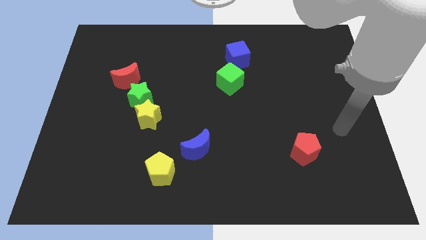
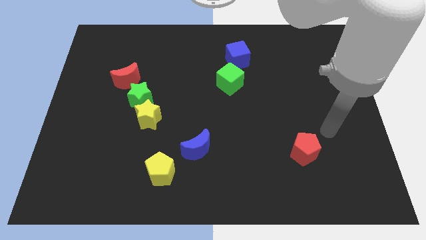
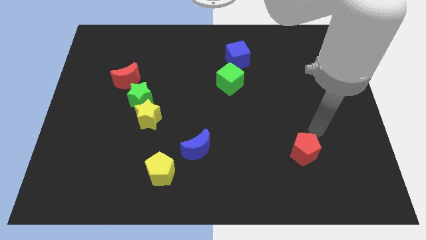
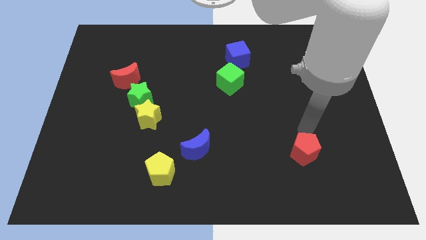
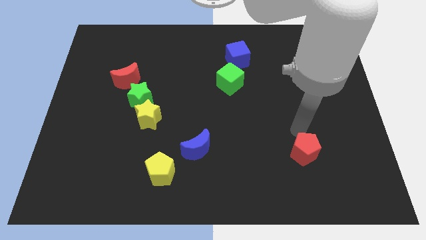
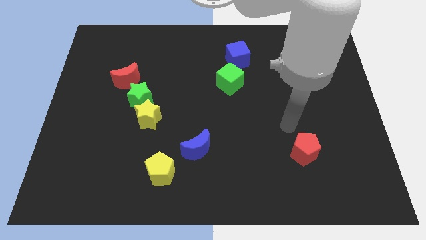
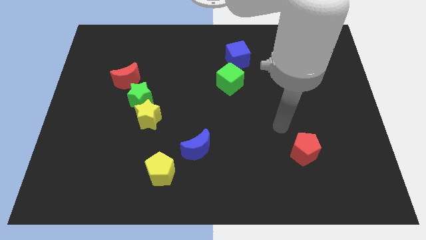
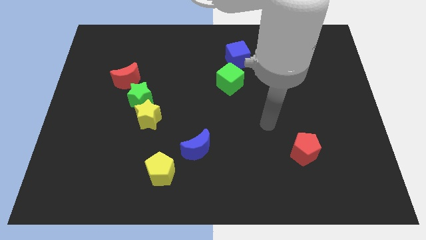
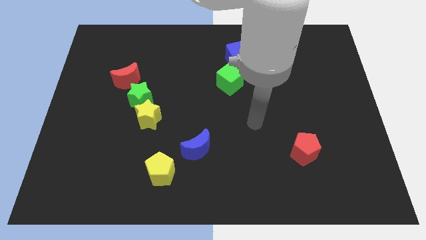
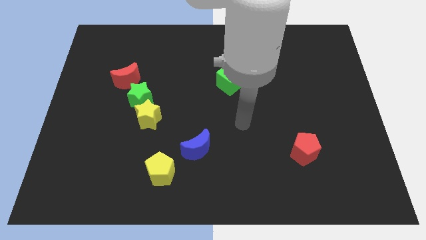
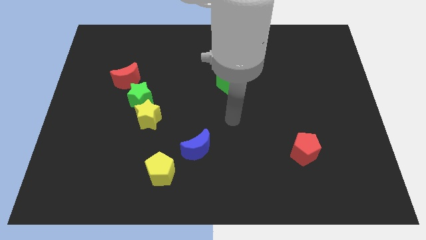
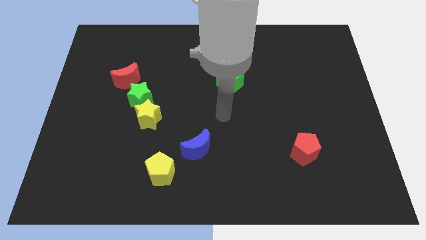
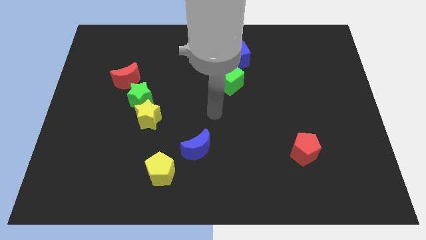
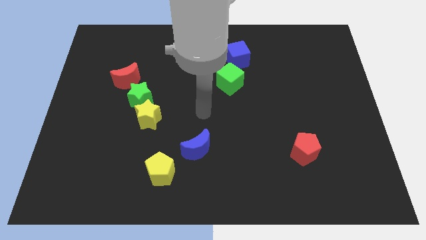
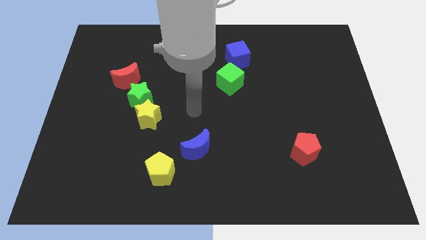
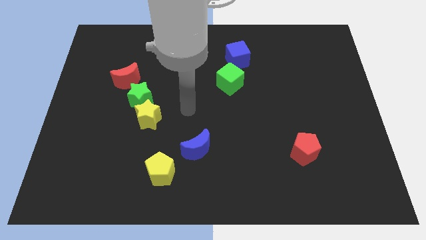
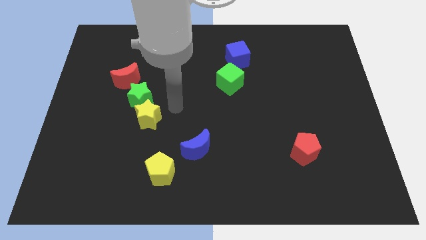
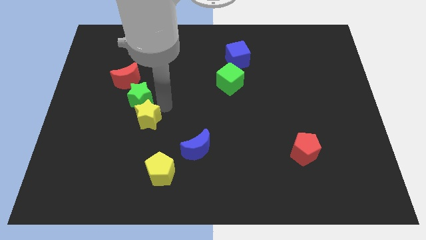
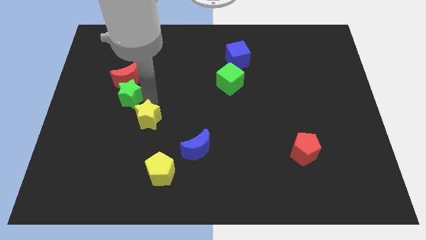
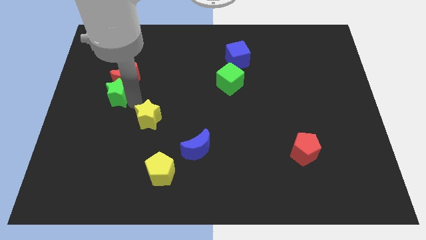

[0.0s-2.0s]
move the yellow star away from the green star

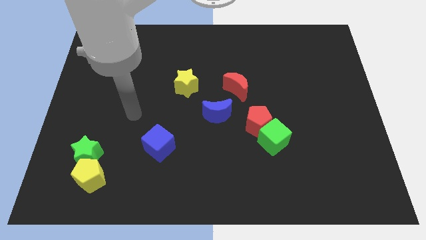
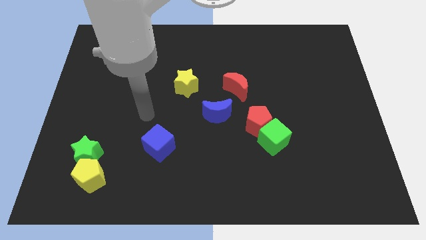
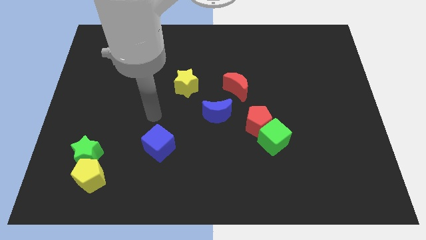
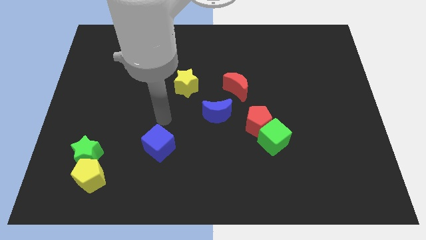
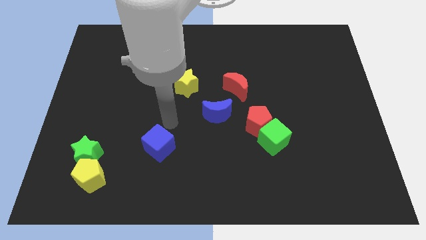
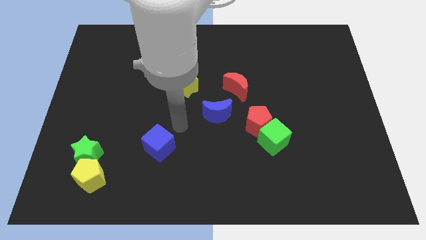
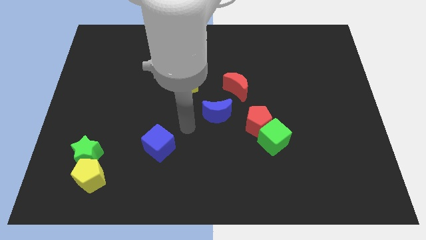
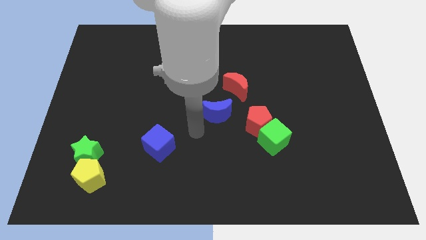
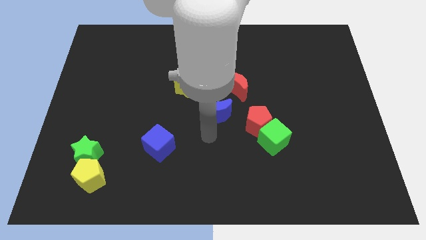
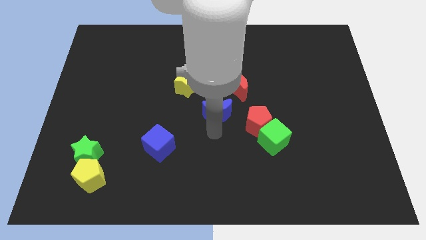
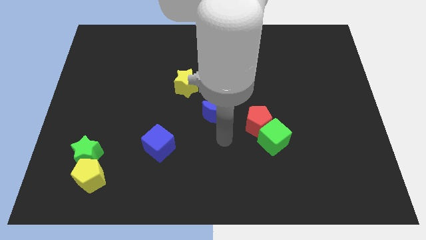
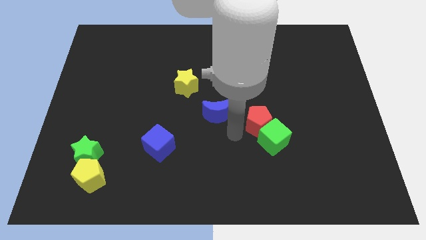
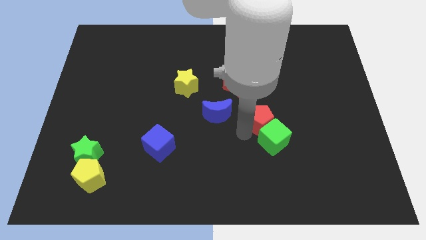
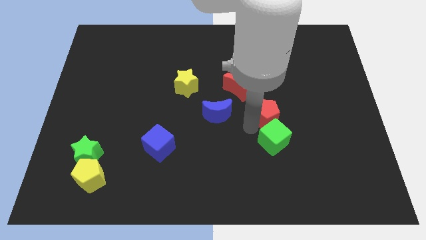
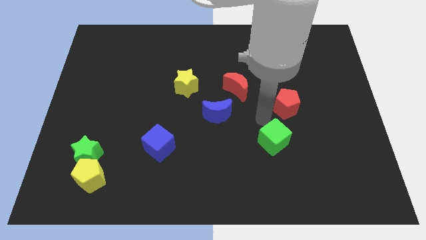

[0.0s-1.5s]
pull the green cube apart from the red pentagon

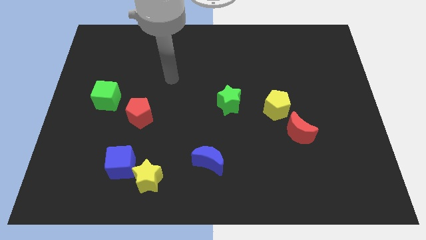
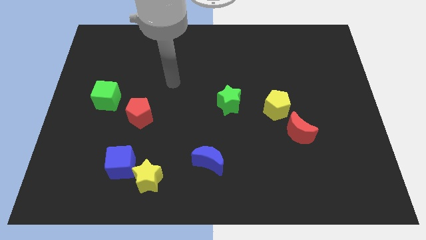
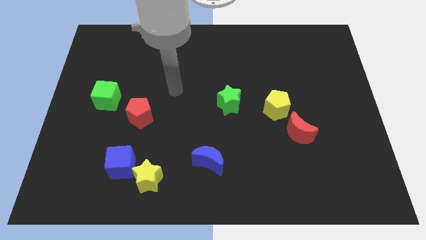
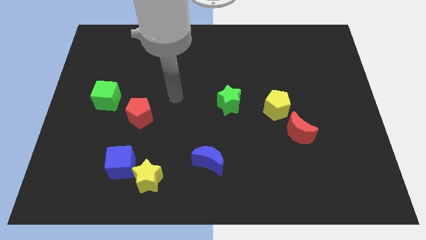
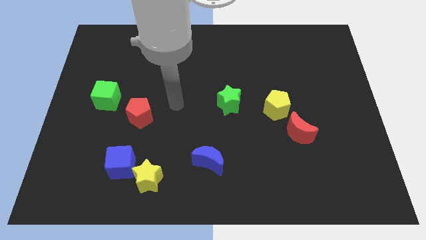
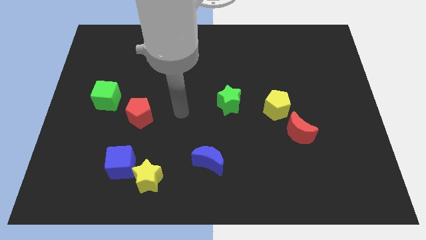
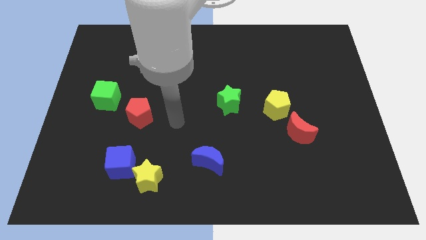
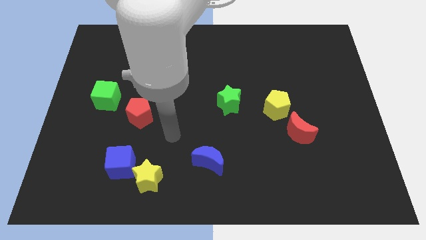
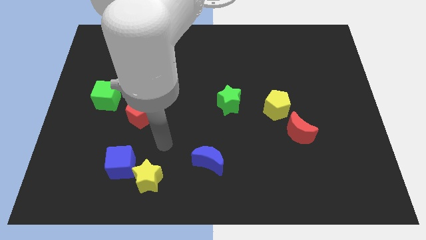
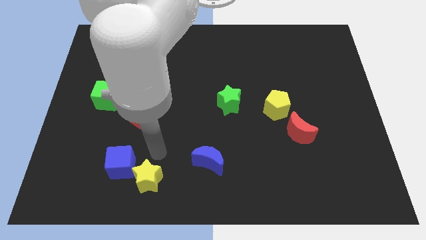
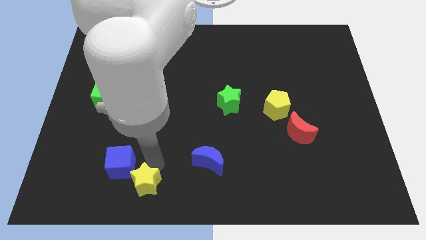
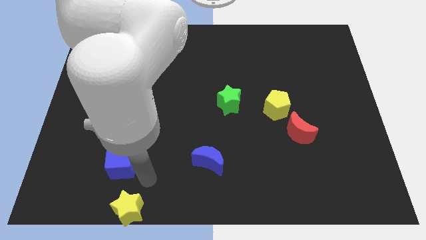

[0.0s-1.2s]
pull the blue cube apart from the yellow star

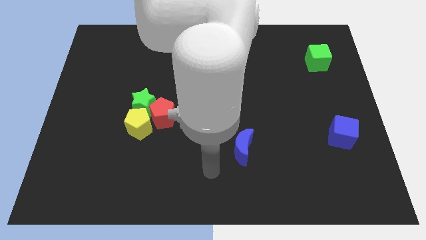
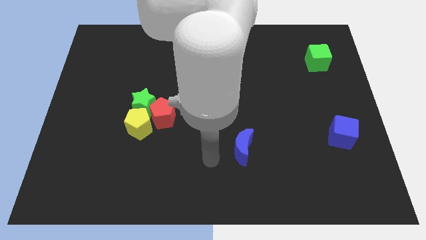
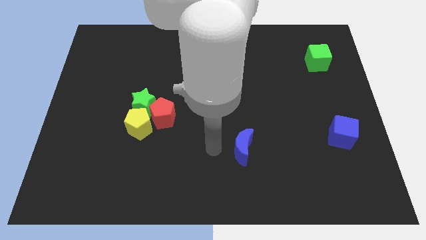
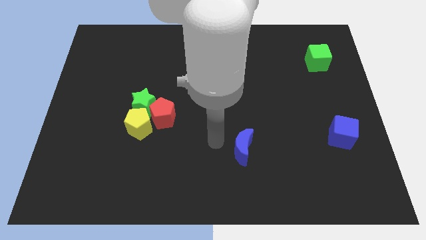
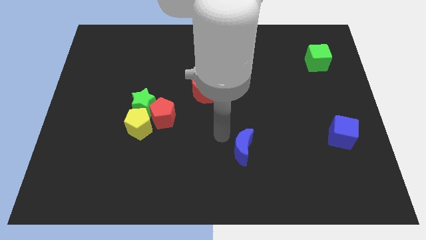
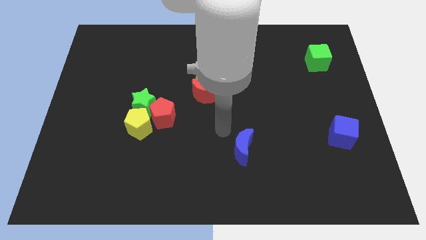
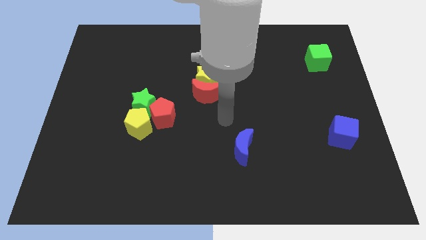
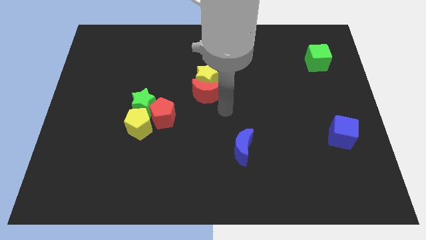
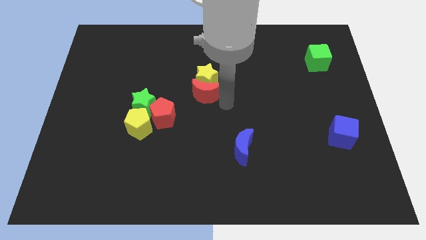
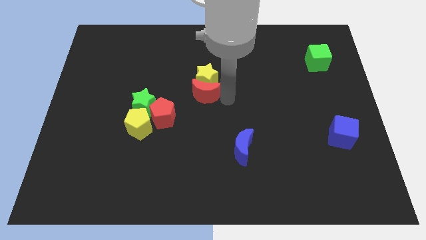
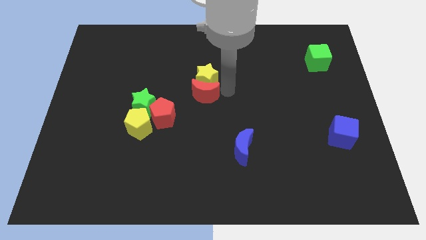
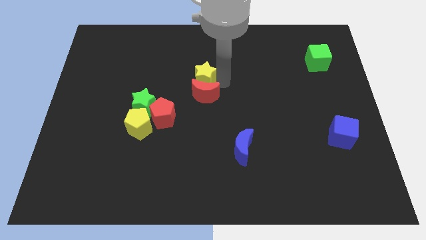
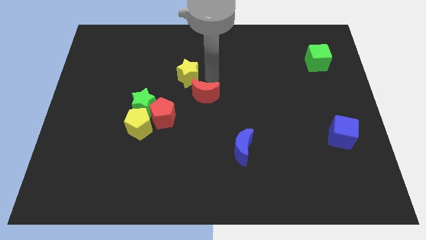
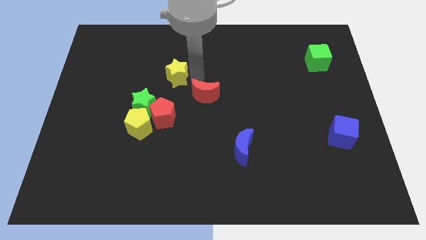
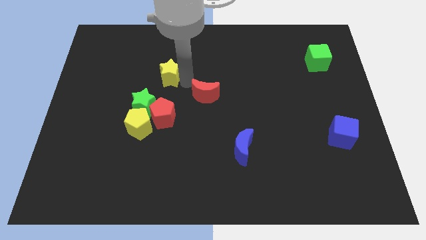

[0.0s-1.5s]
separate the red moon from the yellow star

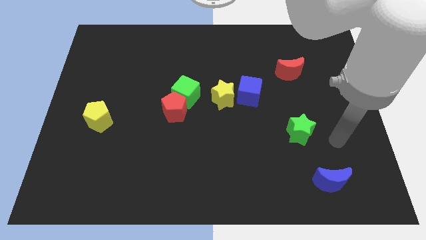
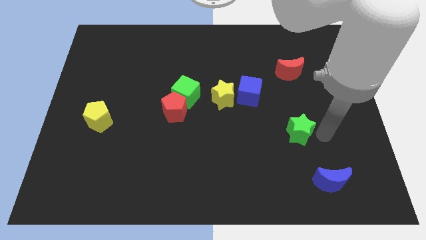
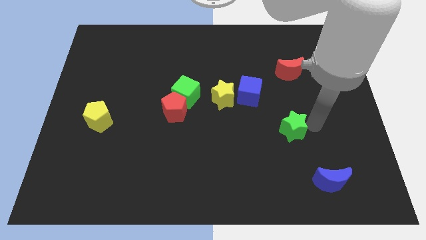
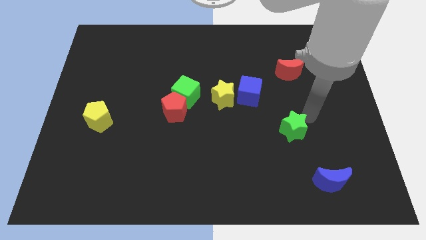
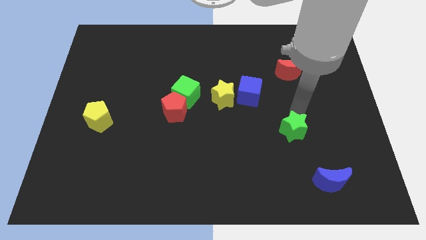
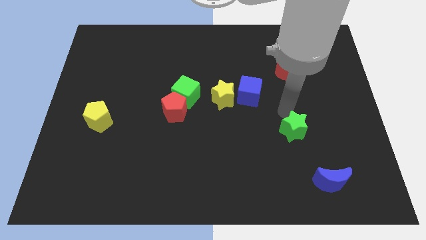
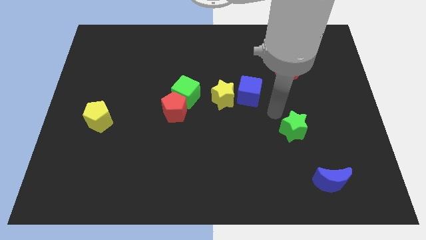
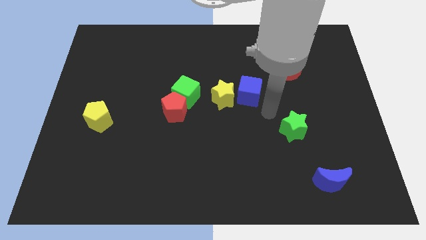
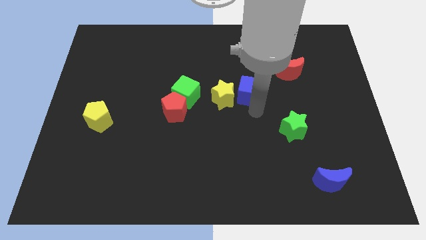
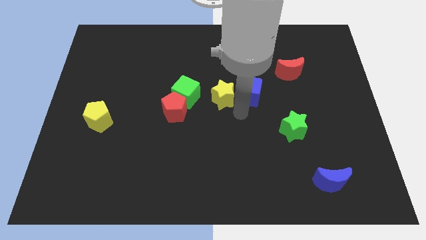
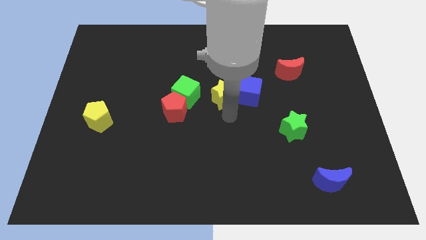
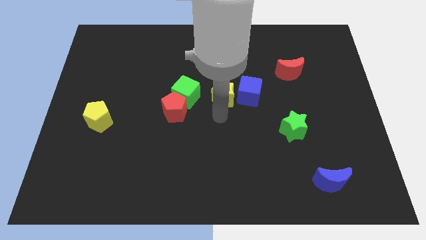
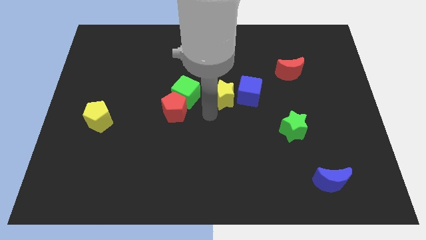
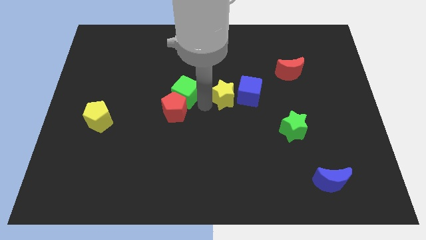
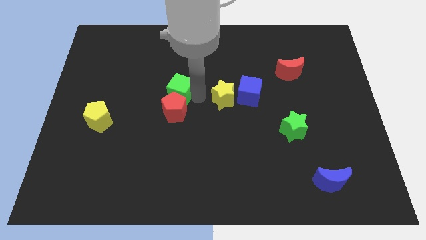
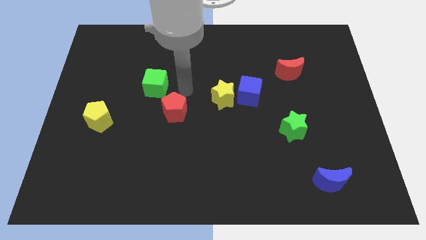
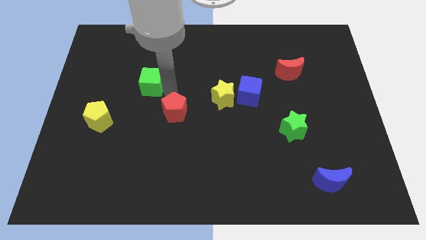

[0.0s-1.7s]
move the red pentagon away from the green cube

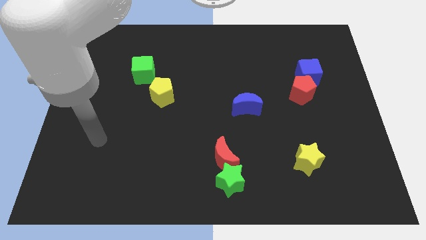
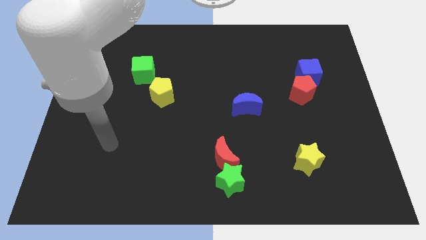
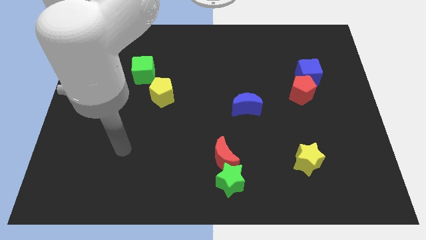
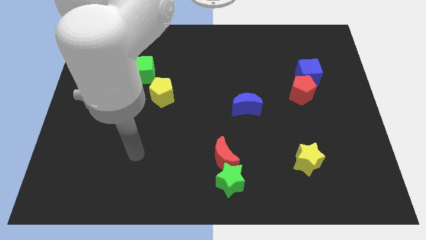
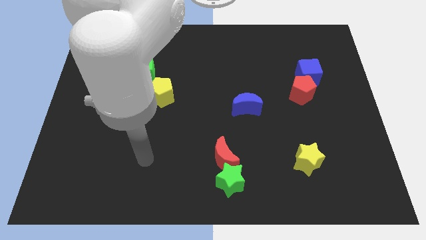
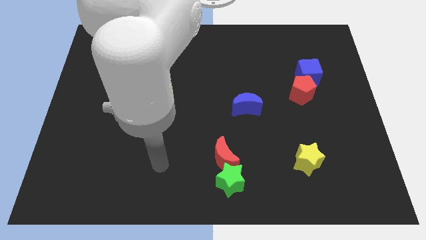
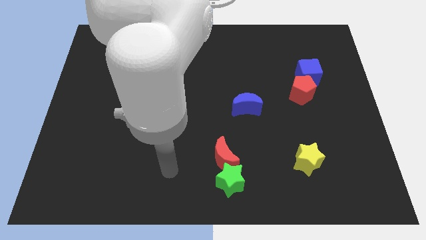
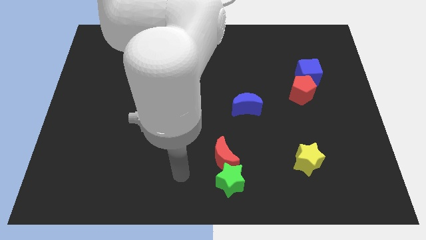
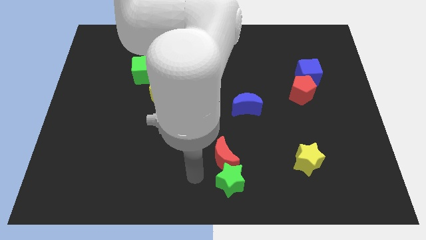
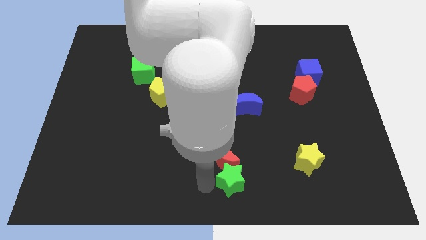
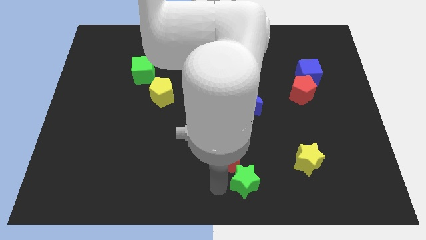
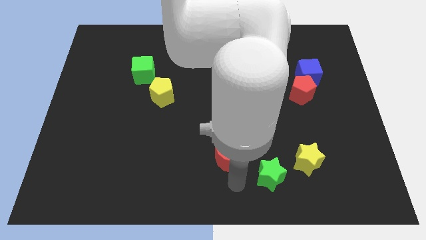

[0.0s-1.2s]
pull the red moon apart from the green star
